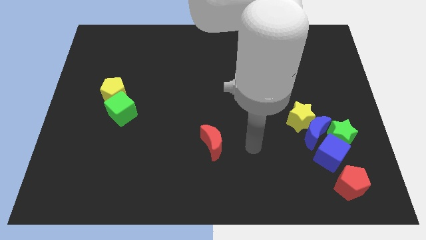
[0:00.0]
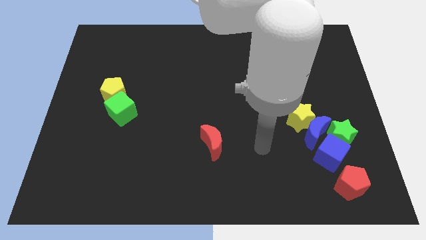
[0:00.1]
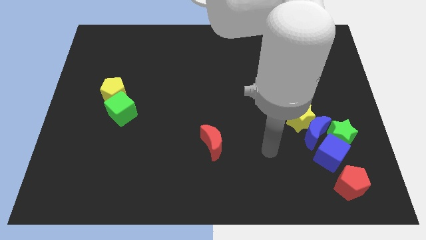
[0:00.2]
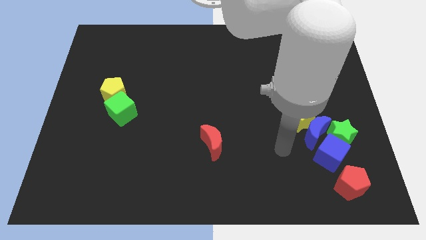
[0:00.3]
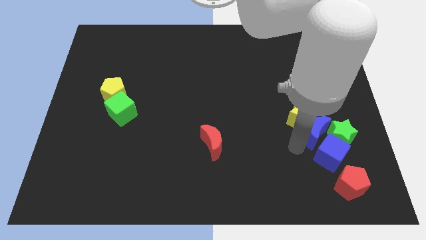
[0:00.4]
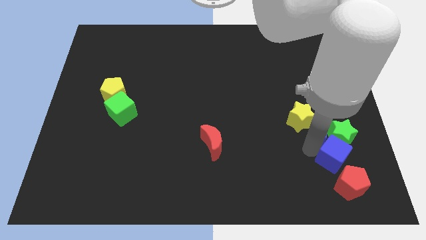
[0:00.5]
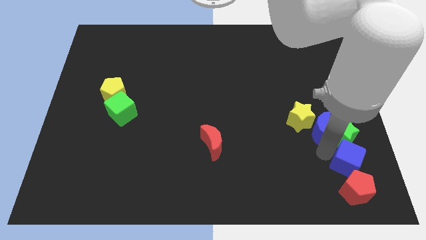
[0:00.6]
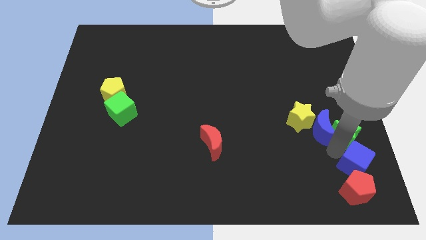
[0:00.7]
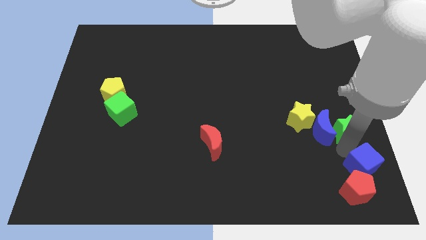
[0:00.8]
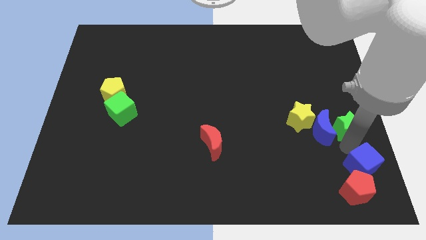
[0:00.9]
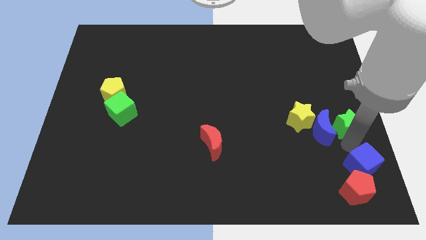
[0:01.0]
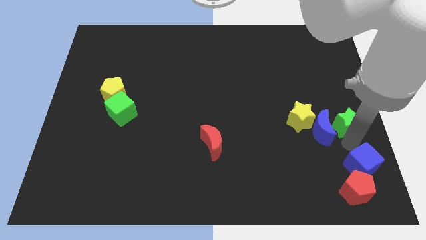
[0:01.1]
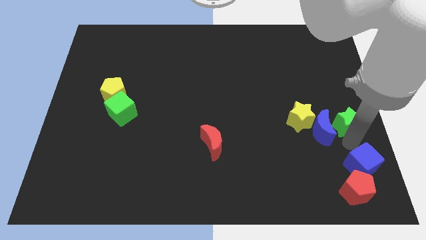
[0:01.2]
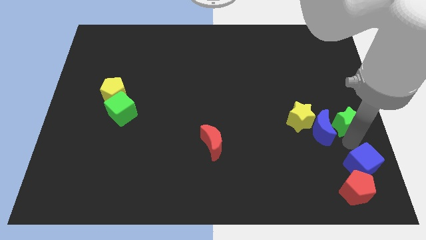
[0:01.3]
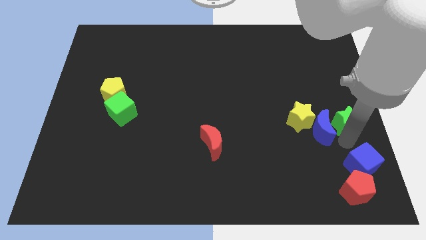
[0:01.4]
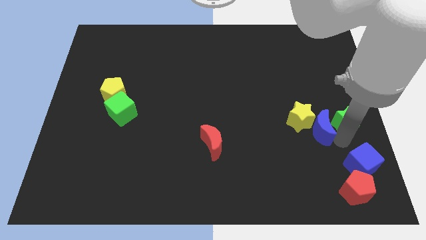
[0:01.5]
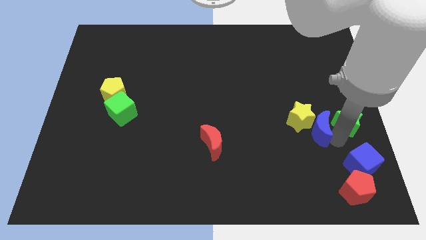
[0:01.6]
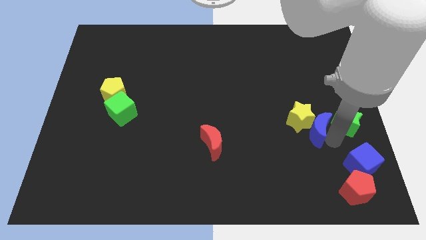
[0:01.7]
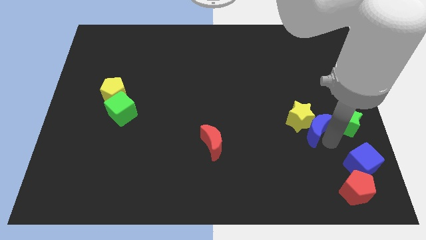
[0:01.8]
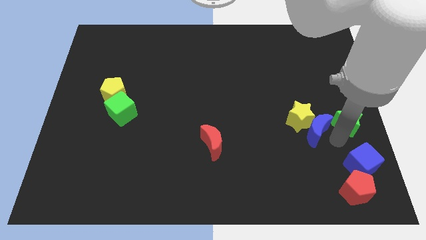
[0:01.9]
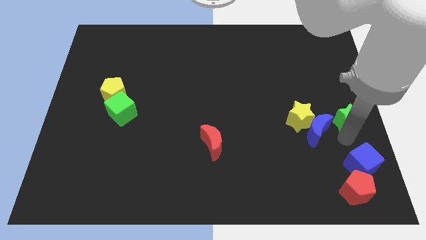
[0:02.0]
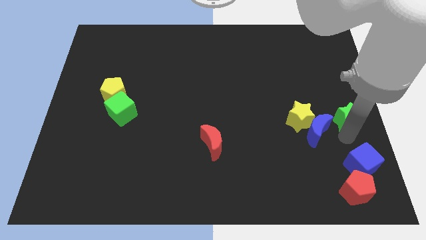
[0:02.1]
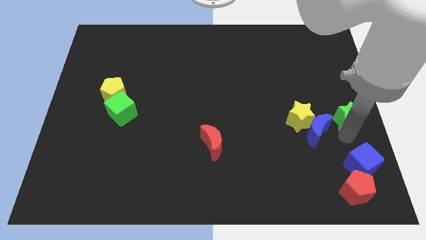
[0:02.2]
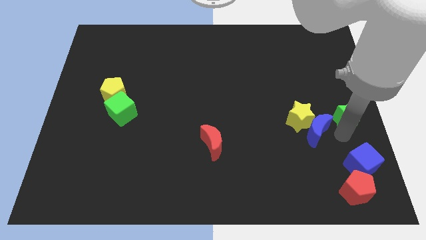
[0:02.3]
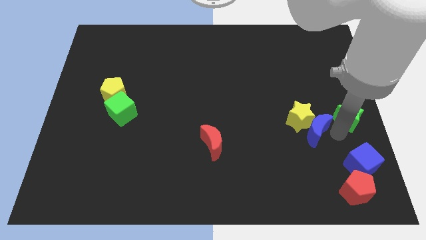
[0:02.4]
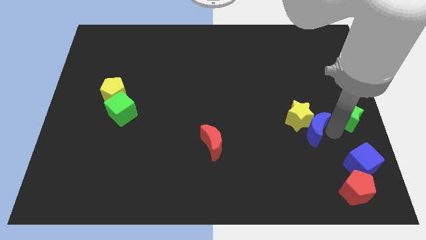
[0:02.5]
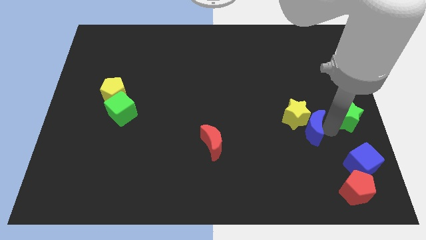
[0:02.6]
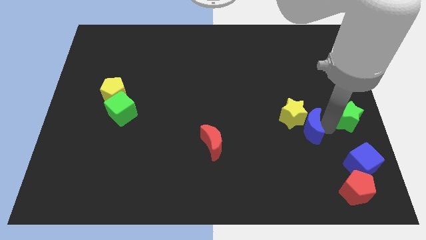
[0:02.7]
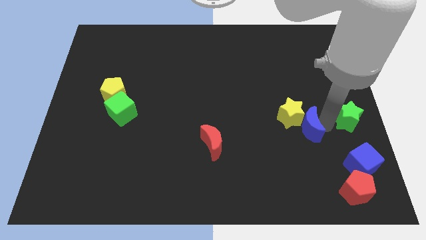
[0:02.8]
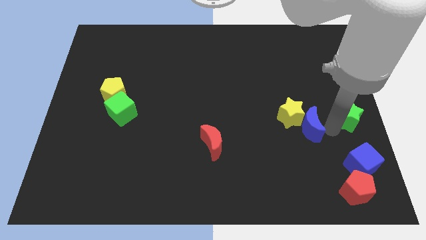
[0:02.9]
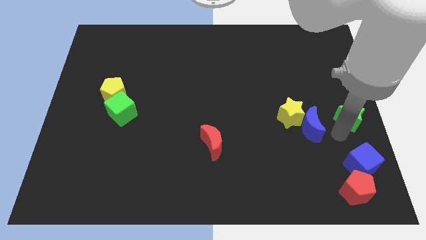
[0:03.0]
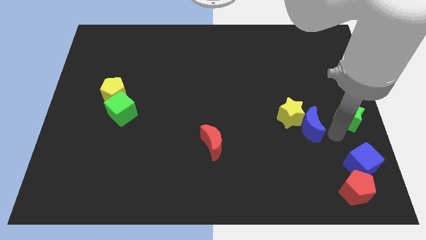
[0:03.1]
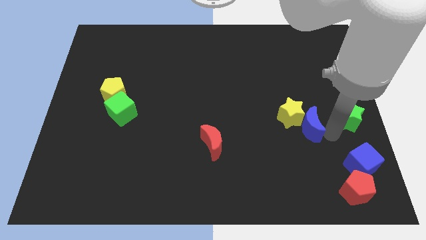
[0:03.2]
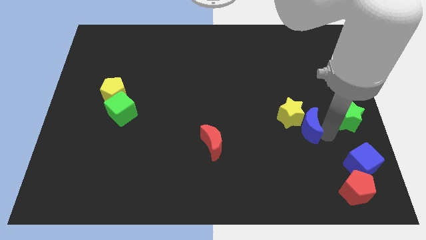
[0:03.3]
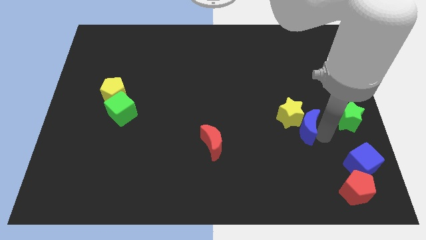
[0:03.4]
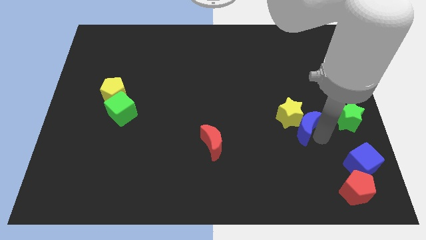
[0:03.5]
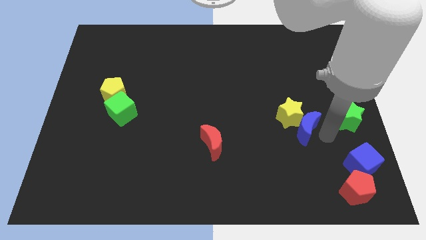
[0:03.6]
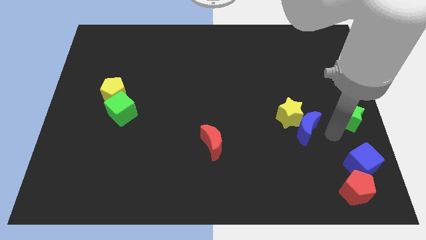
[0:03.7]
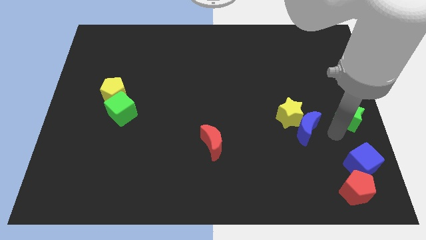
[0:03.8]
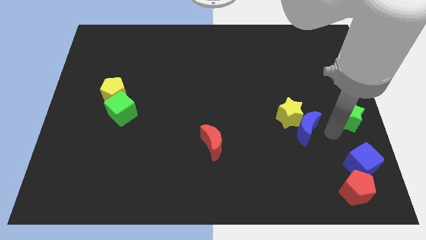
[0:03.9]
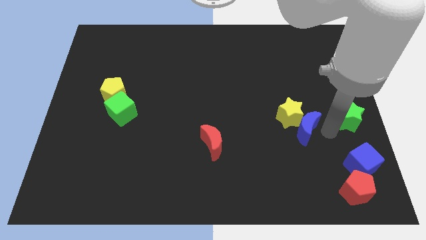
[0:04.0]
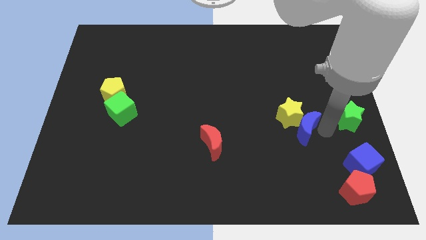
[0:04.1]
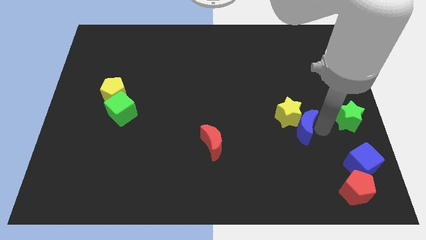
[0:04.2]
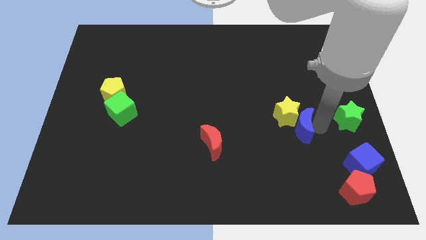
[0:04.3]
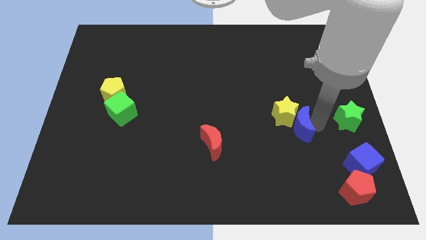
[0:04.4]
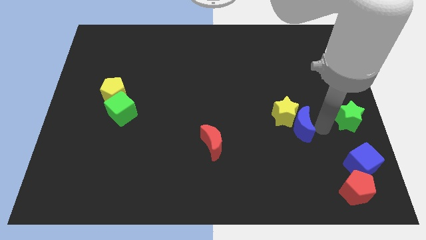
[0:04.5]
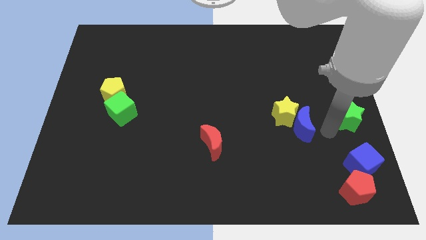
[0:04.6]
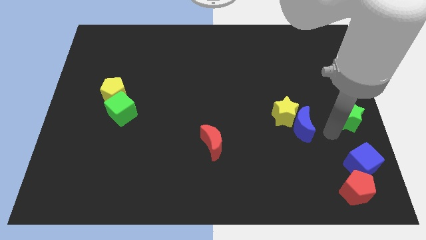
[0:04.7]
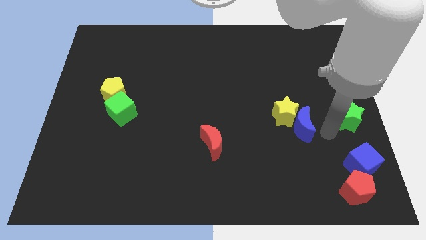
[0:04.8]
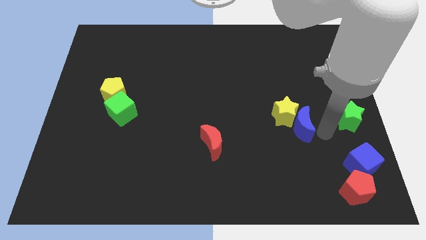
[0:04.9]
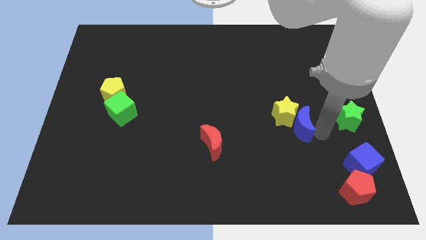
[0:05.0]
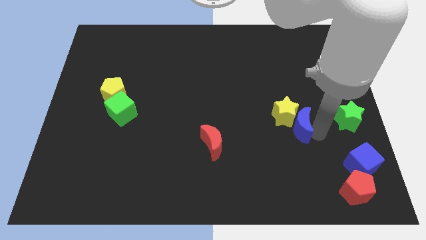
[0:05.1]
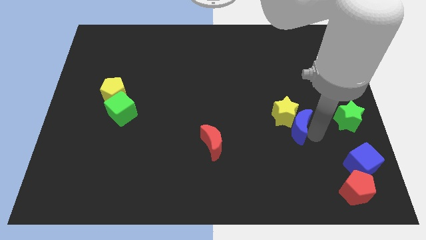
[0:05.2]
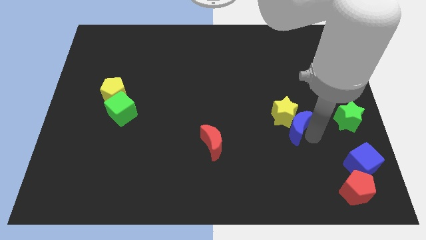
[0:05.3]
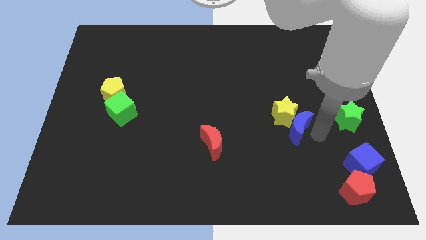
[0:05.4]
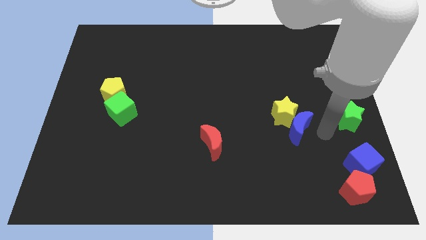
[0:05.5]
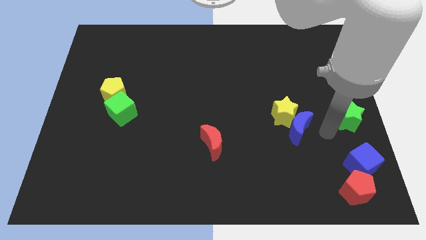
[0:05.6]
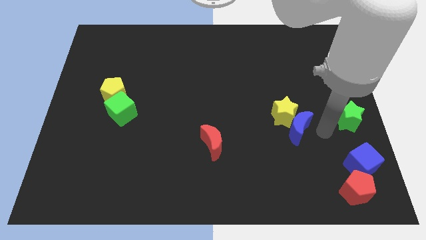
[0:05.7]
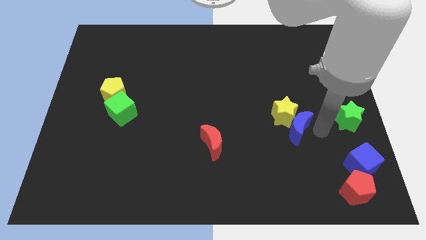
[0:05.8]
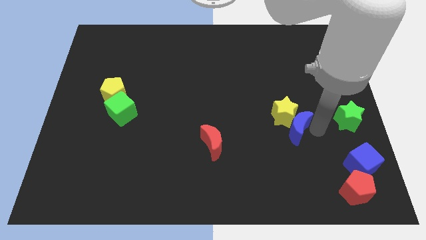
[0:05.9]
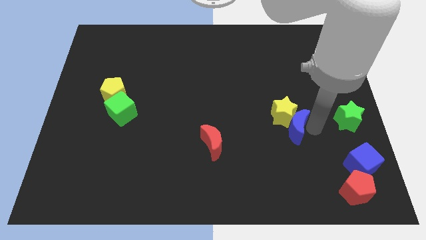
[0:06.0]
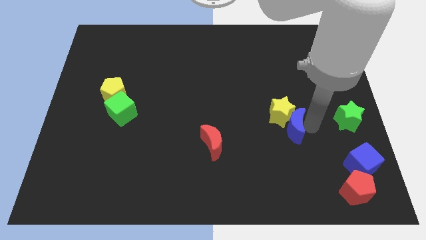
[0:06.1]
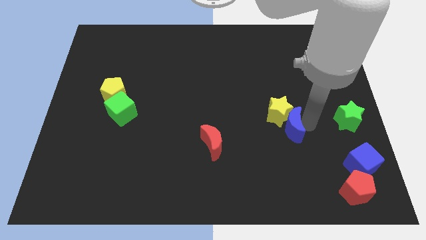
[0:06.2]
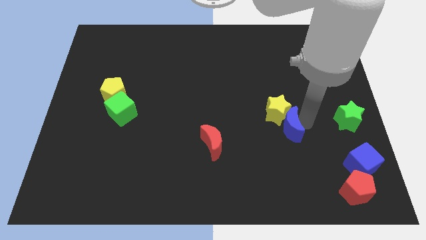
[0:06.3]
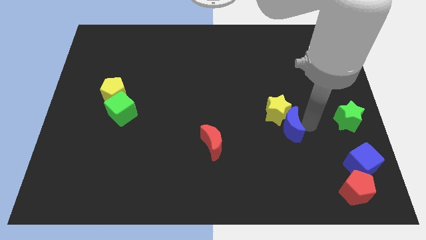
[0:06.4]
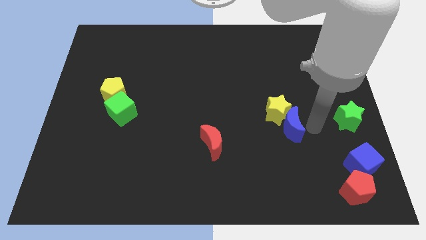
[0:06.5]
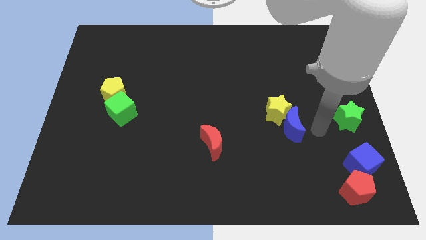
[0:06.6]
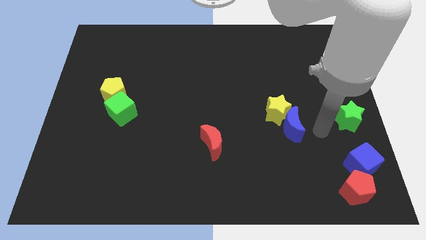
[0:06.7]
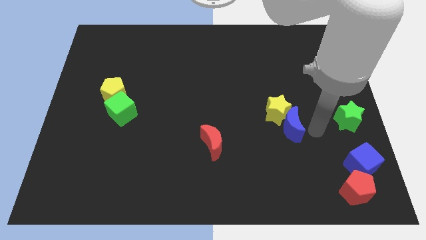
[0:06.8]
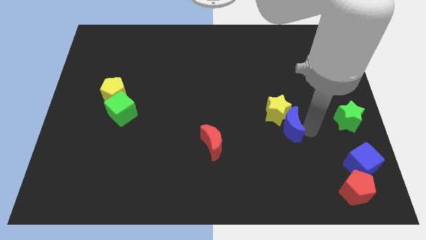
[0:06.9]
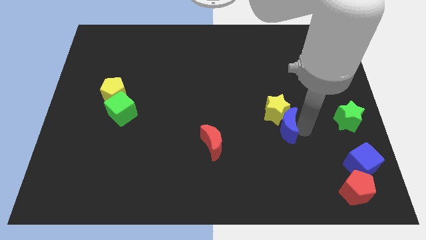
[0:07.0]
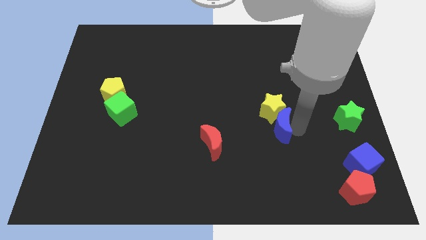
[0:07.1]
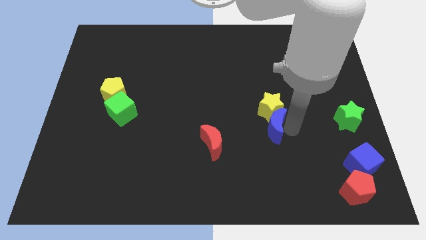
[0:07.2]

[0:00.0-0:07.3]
separate the blue moon from the group

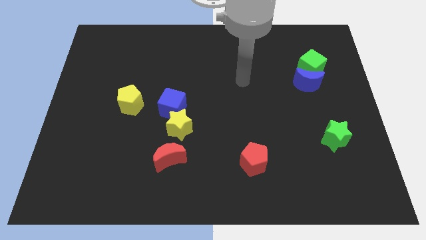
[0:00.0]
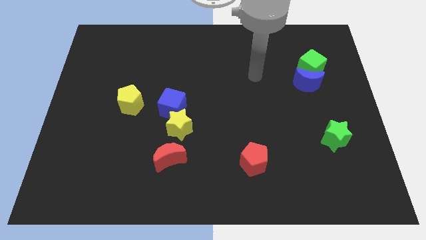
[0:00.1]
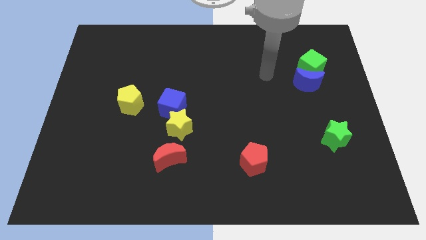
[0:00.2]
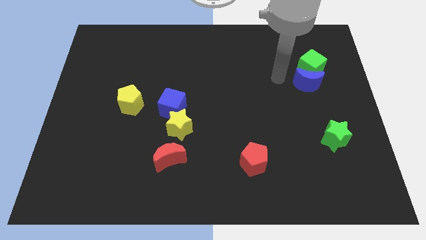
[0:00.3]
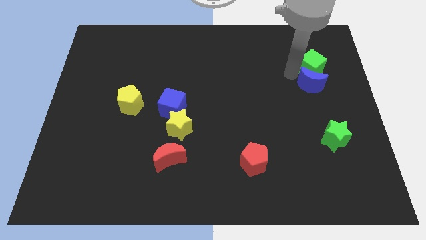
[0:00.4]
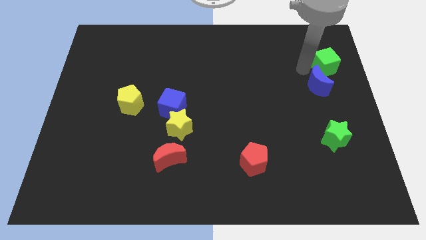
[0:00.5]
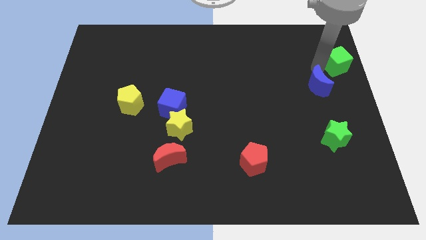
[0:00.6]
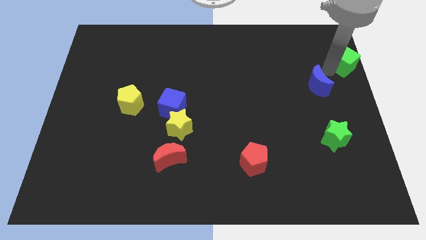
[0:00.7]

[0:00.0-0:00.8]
pull the blue moon apart from the green cube

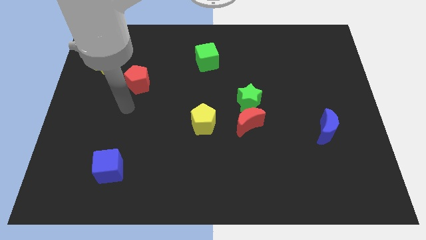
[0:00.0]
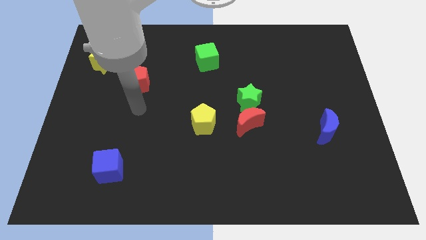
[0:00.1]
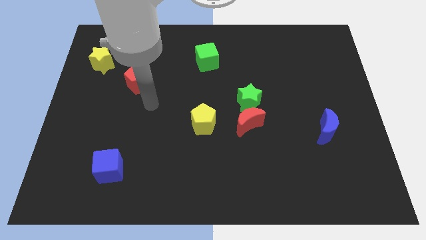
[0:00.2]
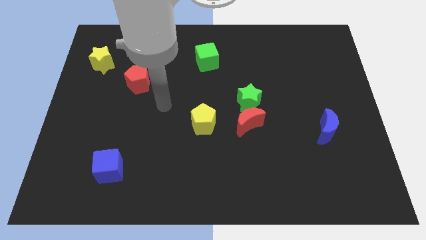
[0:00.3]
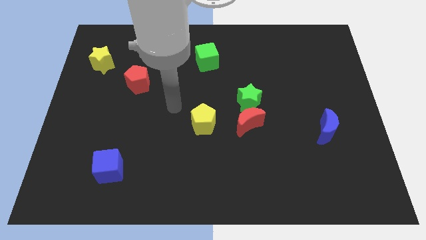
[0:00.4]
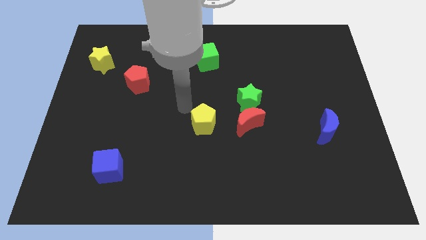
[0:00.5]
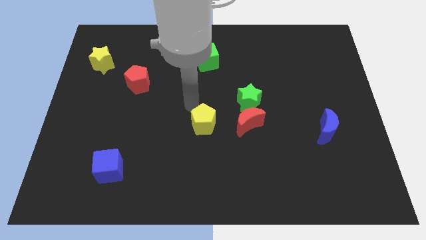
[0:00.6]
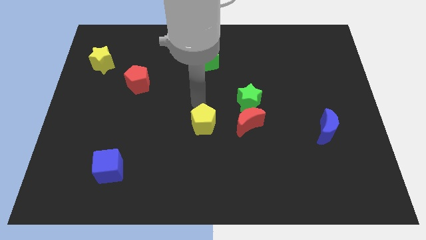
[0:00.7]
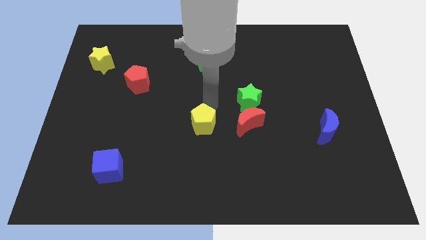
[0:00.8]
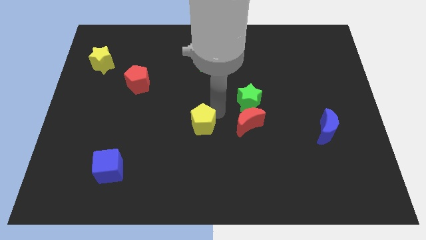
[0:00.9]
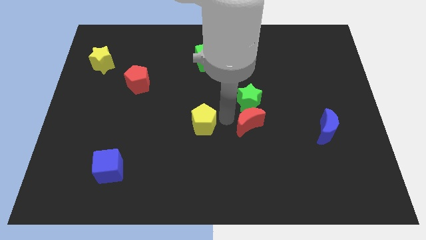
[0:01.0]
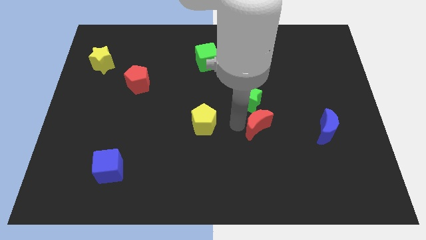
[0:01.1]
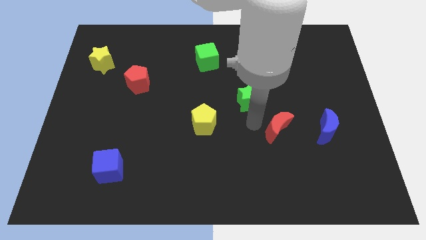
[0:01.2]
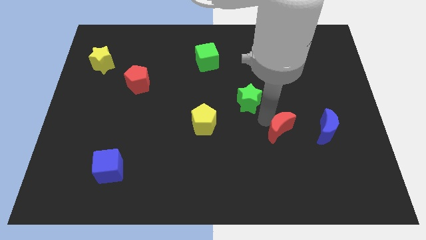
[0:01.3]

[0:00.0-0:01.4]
pull the green star apart from the red moon

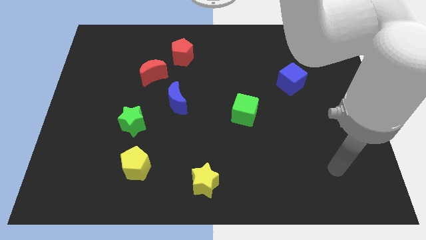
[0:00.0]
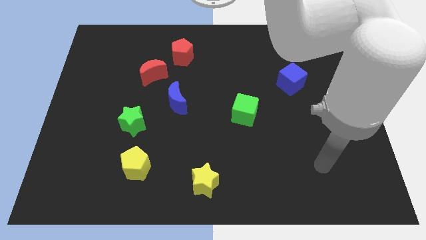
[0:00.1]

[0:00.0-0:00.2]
separate the red moon from the red pentagon
